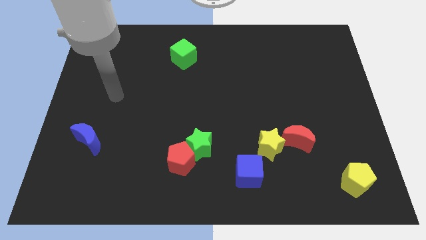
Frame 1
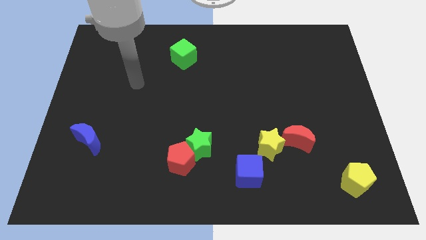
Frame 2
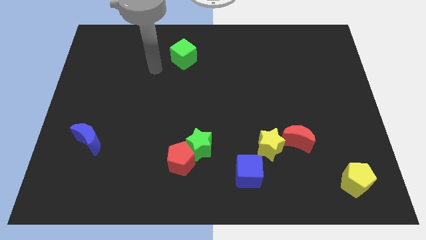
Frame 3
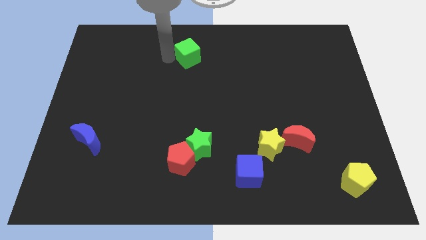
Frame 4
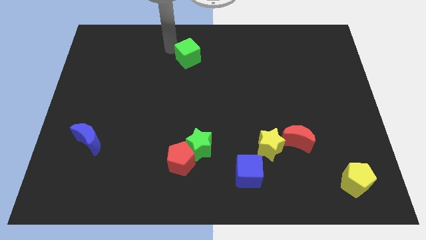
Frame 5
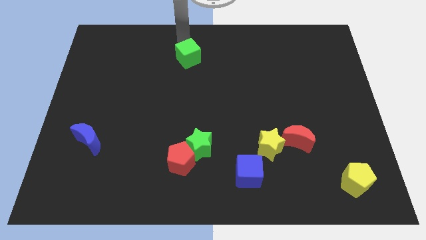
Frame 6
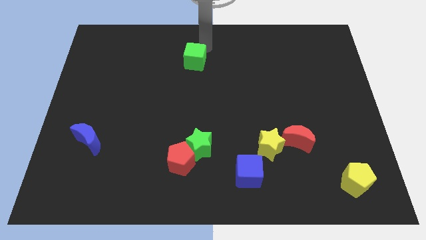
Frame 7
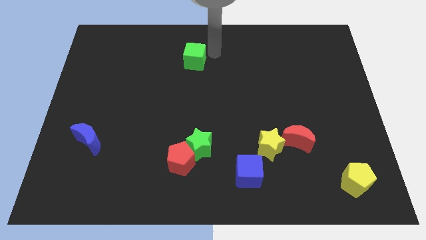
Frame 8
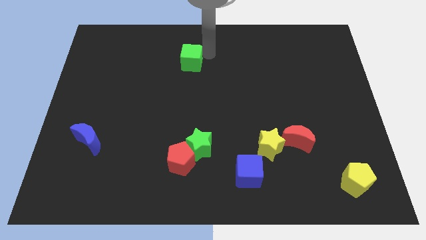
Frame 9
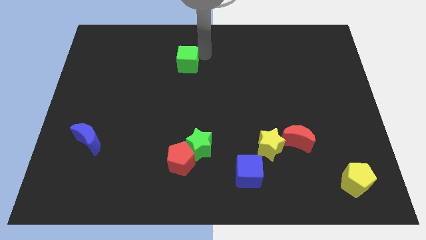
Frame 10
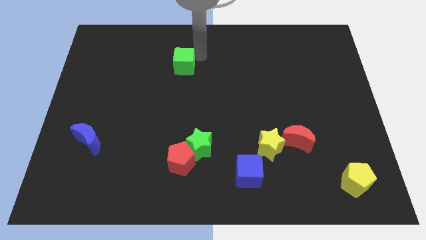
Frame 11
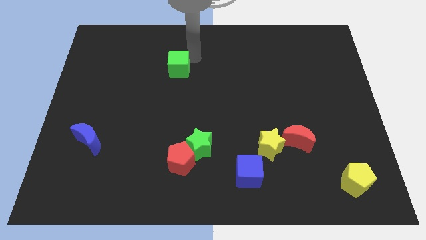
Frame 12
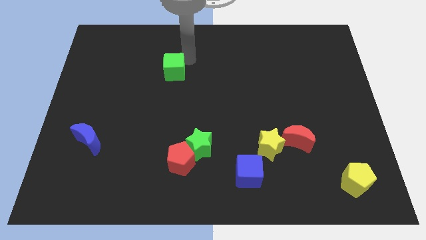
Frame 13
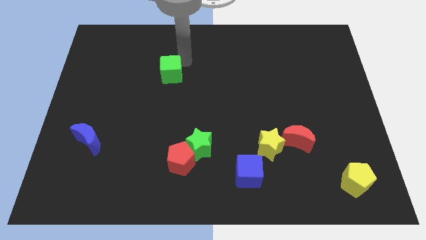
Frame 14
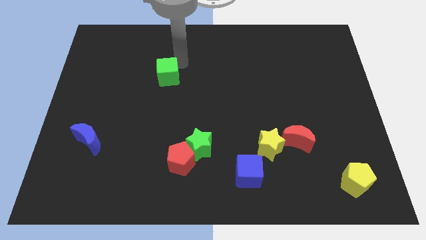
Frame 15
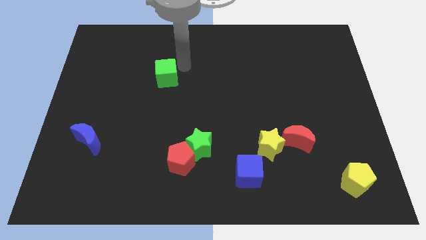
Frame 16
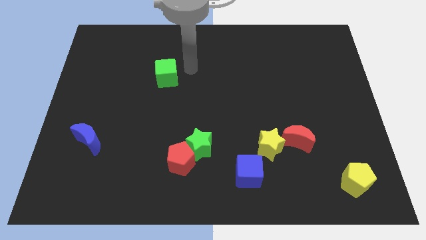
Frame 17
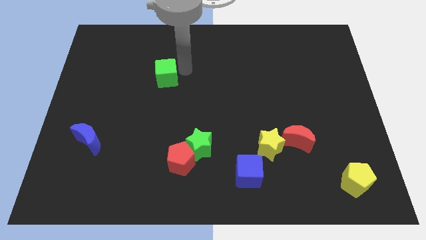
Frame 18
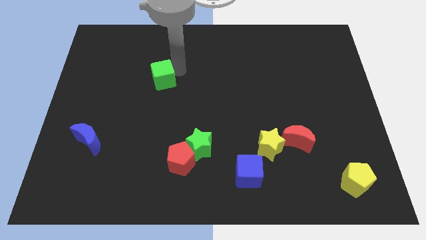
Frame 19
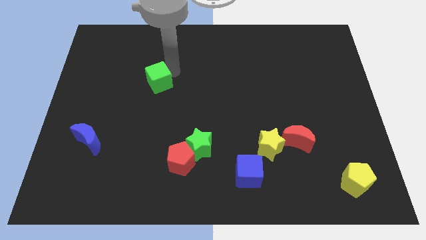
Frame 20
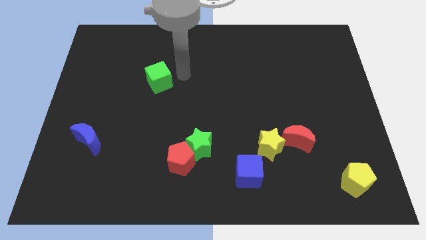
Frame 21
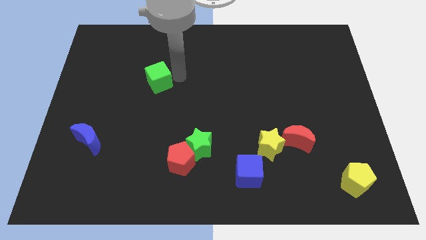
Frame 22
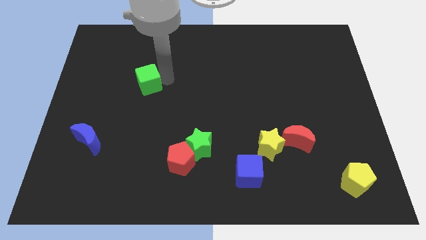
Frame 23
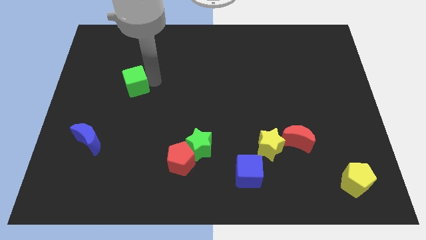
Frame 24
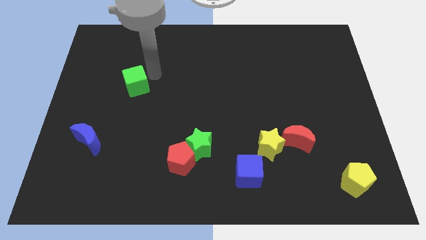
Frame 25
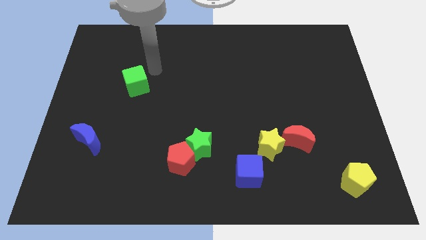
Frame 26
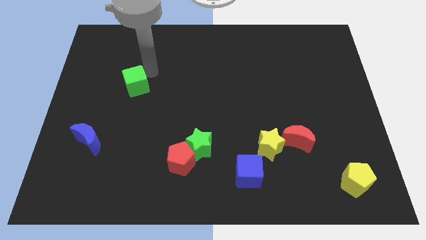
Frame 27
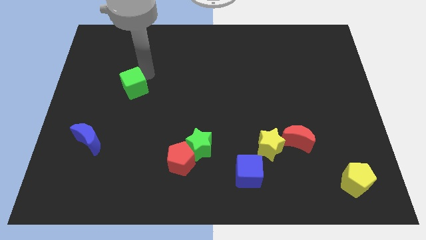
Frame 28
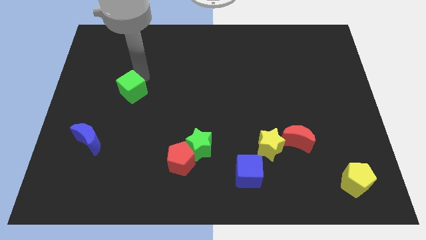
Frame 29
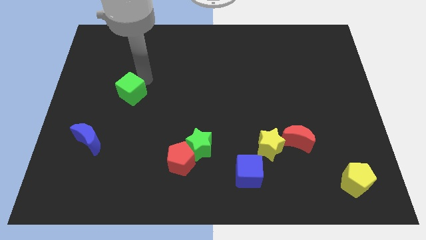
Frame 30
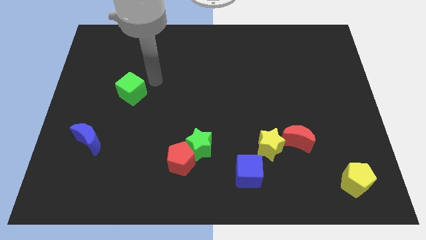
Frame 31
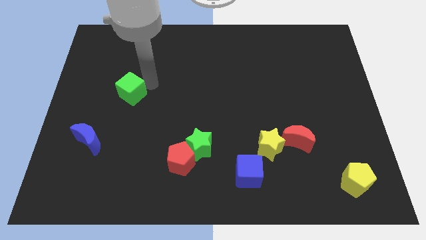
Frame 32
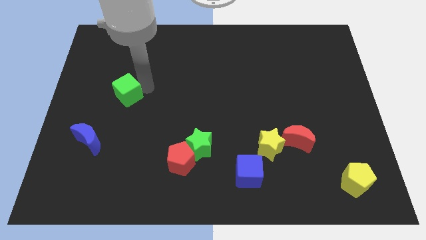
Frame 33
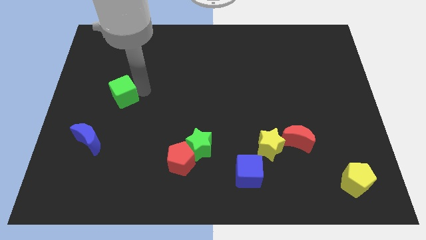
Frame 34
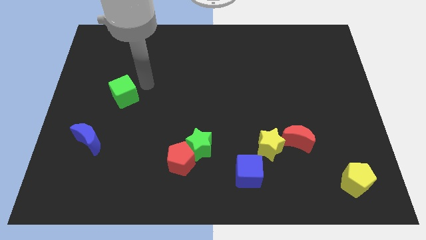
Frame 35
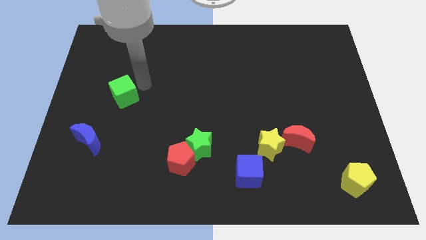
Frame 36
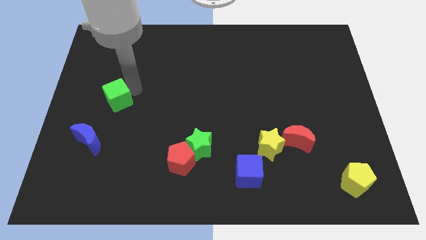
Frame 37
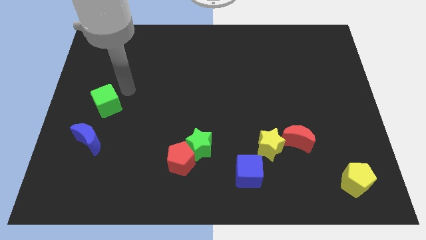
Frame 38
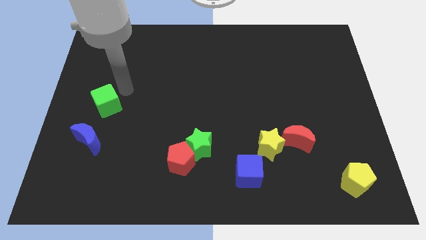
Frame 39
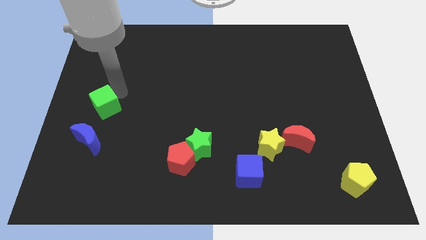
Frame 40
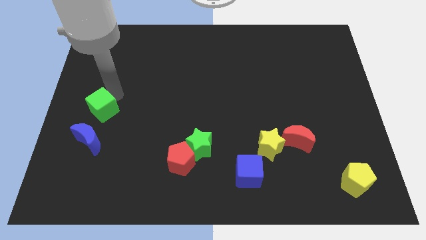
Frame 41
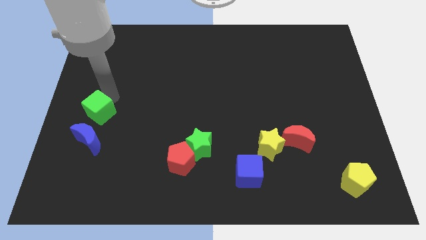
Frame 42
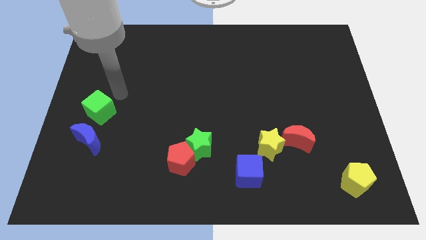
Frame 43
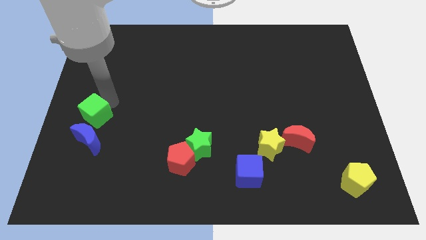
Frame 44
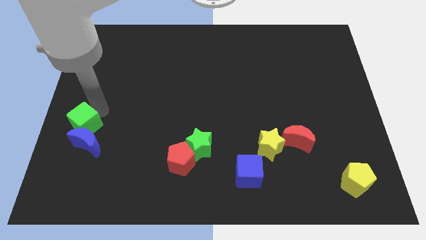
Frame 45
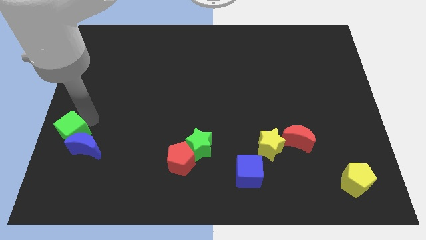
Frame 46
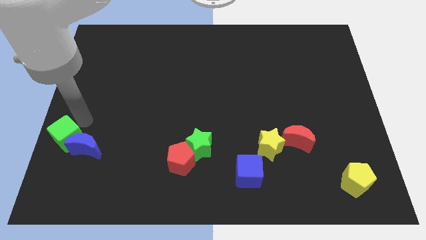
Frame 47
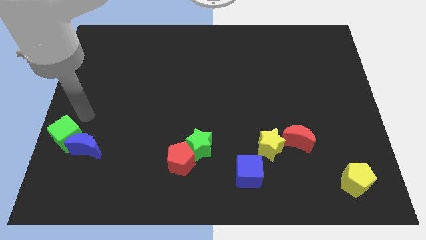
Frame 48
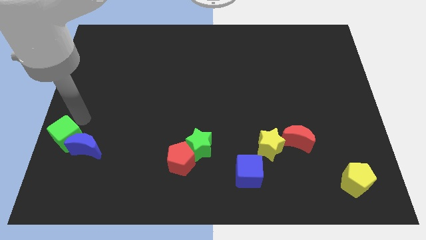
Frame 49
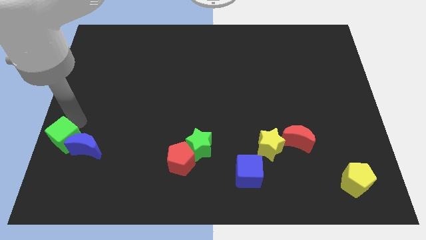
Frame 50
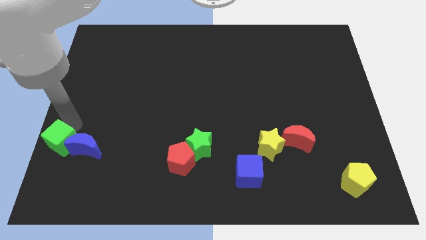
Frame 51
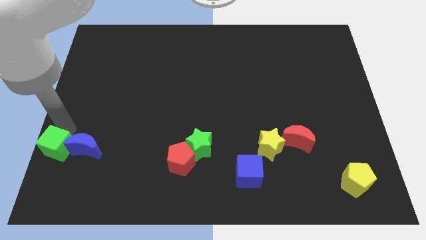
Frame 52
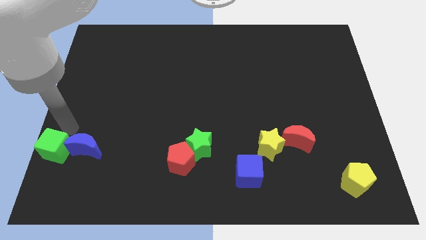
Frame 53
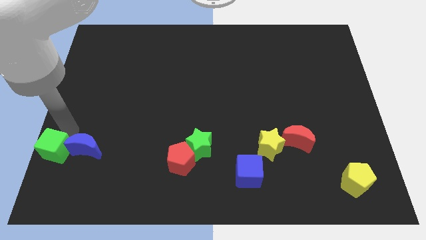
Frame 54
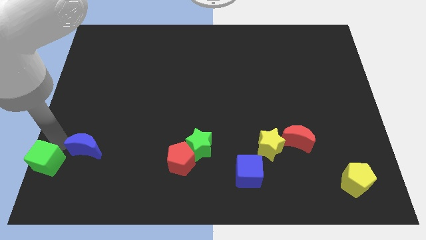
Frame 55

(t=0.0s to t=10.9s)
put the green cube to the bottom left

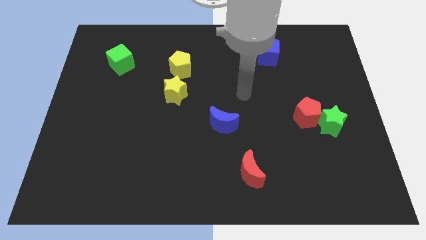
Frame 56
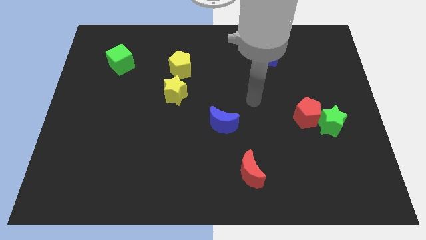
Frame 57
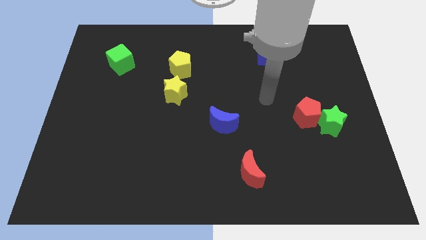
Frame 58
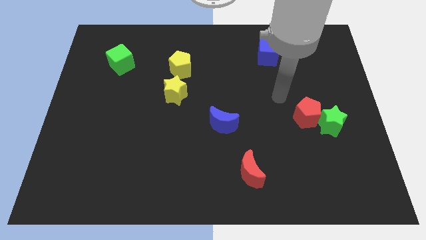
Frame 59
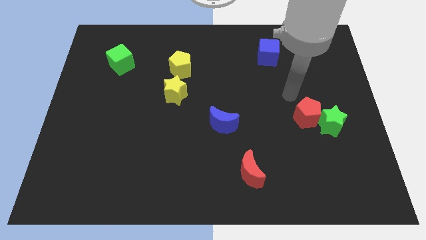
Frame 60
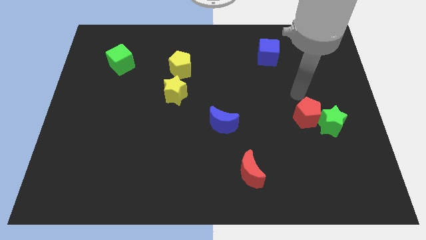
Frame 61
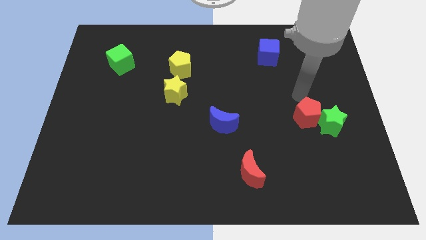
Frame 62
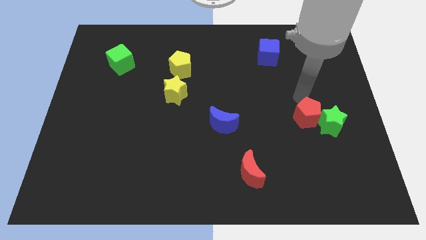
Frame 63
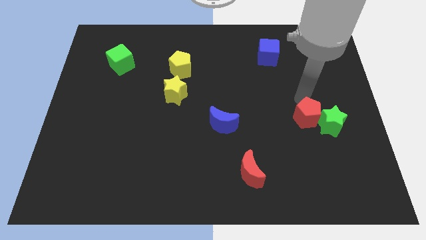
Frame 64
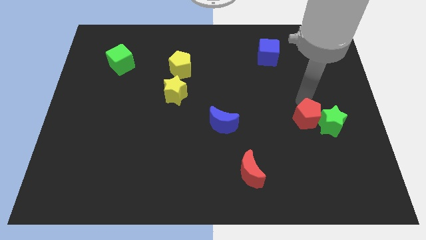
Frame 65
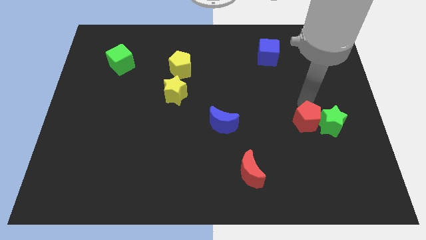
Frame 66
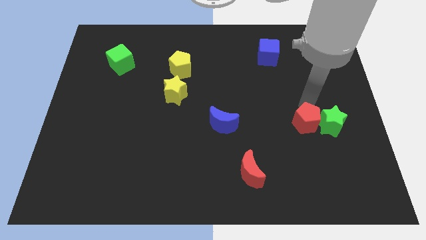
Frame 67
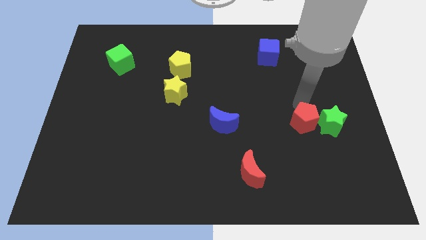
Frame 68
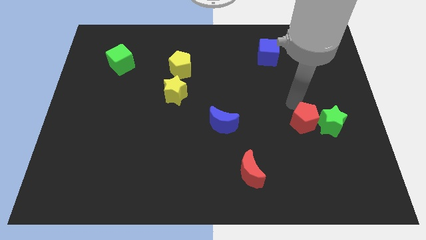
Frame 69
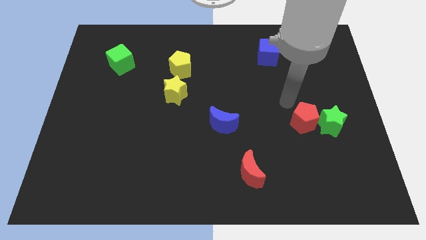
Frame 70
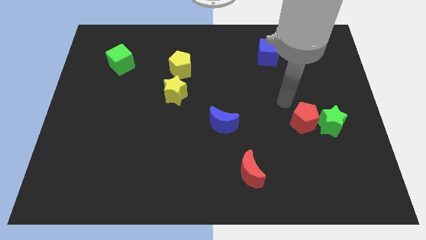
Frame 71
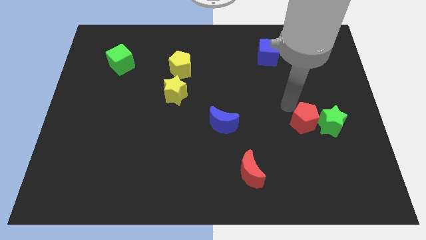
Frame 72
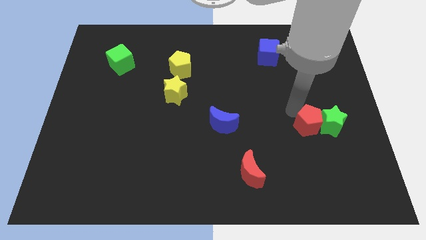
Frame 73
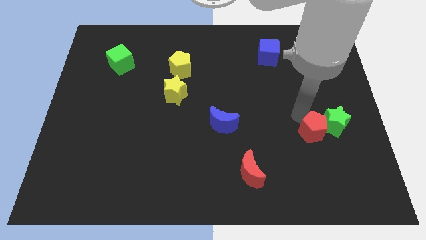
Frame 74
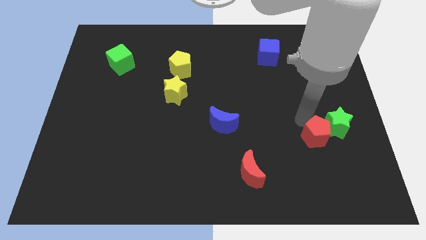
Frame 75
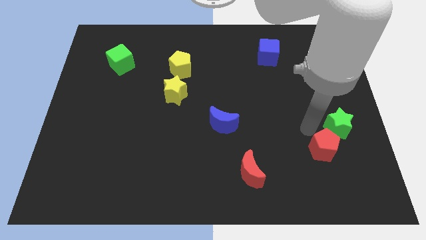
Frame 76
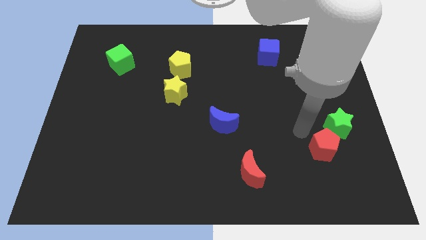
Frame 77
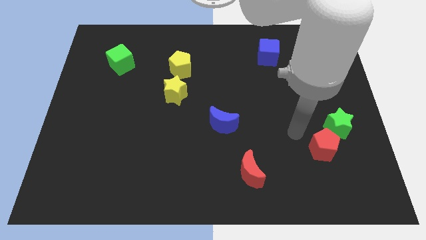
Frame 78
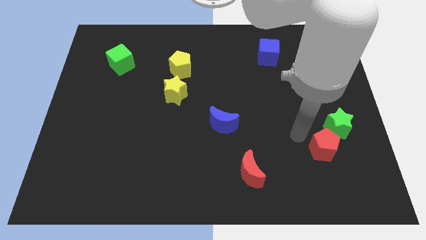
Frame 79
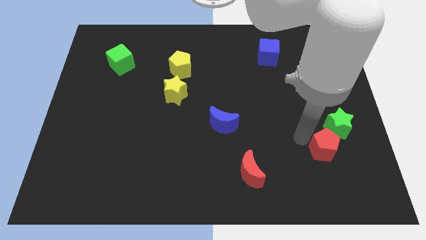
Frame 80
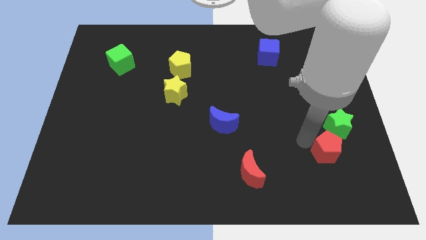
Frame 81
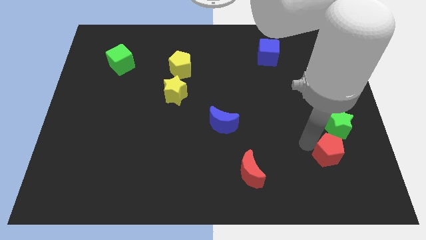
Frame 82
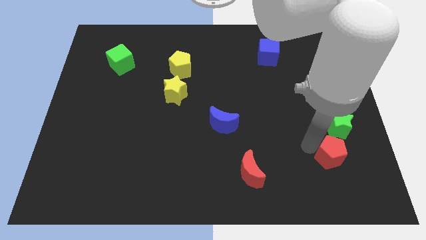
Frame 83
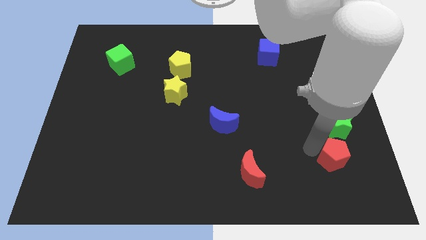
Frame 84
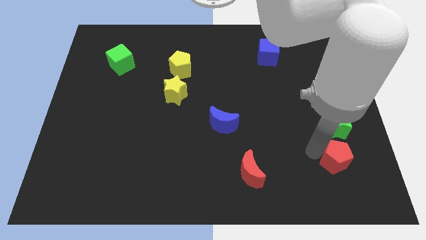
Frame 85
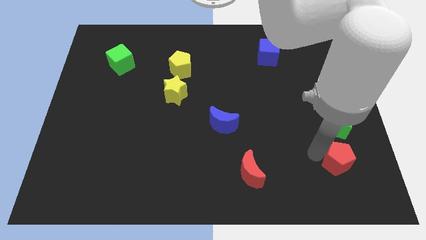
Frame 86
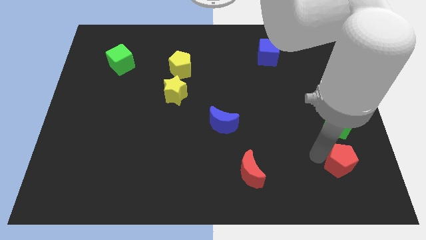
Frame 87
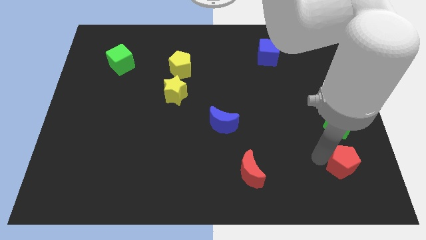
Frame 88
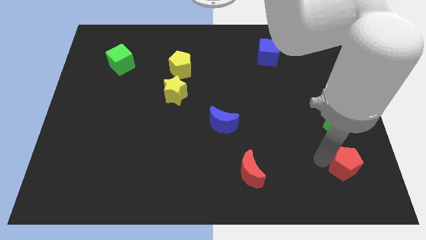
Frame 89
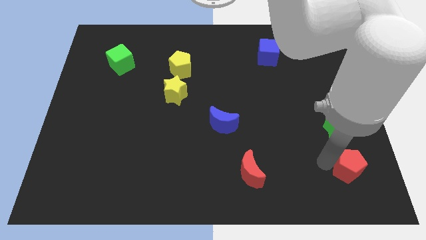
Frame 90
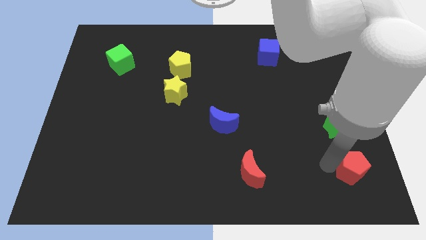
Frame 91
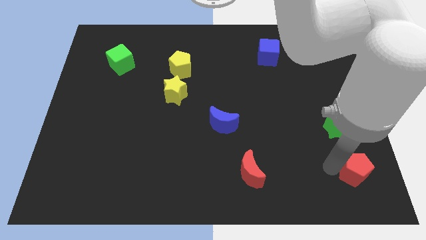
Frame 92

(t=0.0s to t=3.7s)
put the red pentagon to the lower right corner
